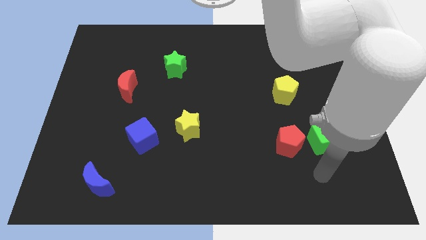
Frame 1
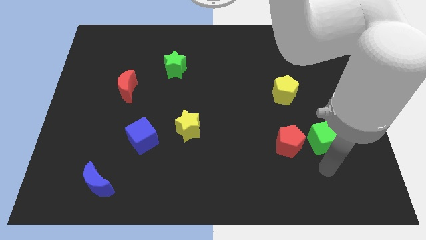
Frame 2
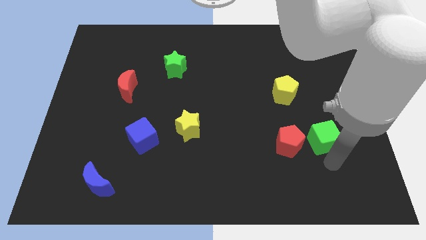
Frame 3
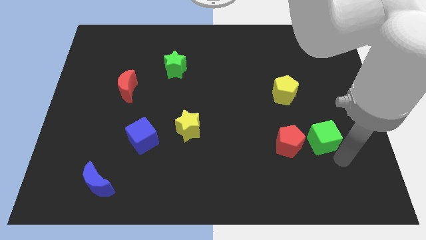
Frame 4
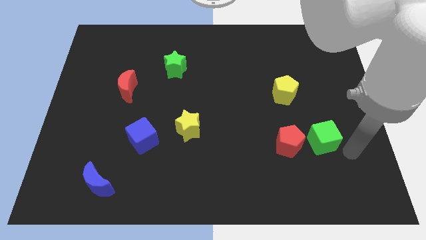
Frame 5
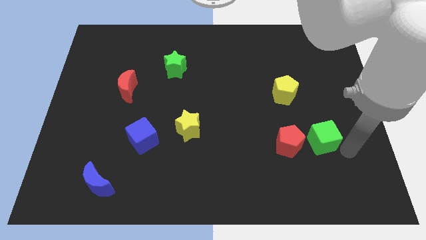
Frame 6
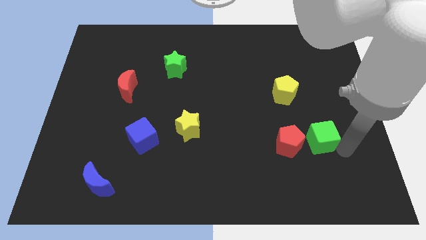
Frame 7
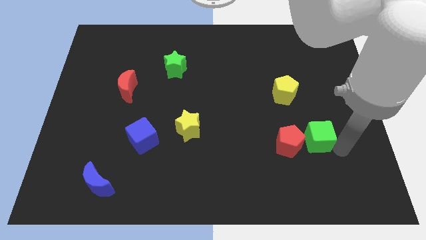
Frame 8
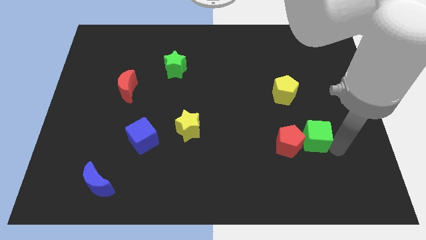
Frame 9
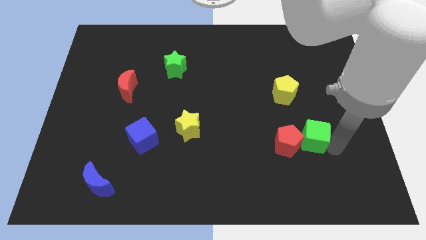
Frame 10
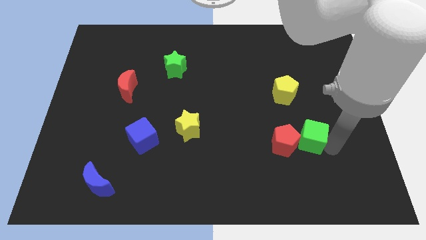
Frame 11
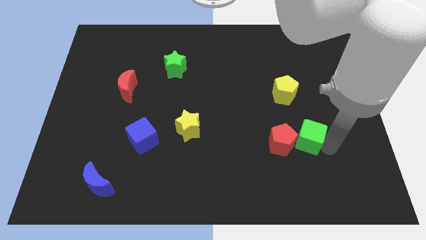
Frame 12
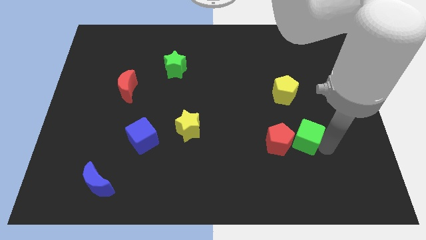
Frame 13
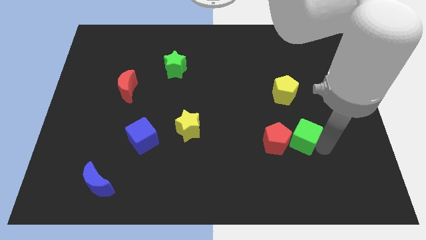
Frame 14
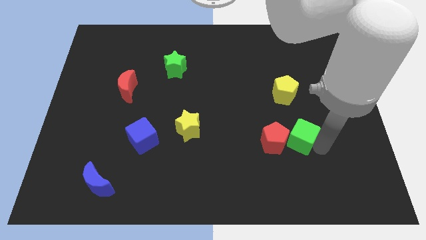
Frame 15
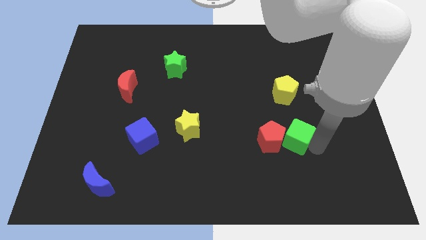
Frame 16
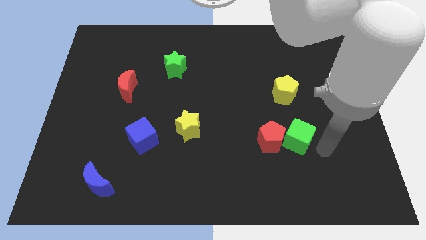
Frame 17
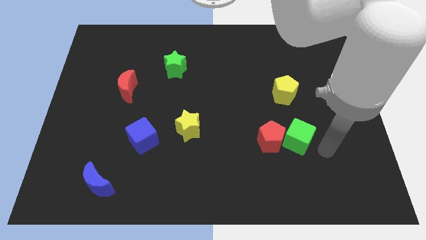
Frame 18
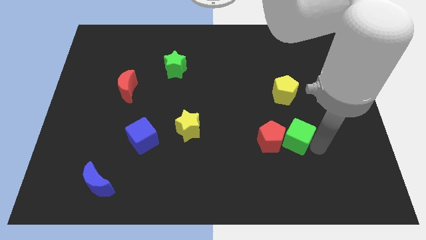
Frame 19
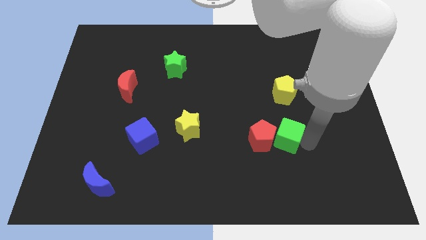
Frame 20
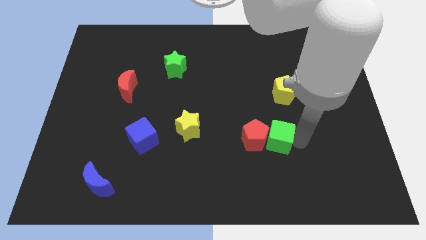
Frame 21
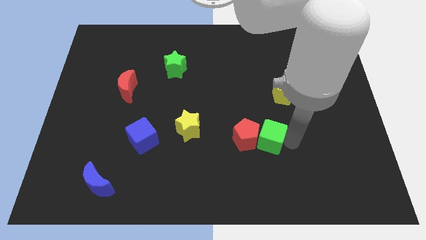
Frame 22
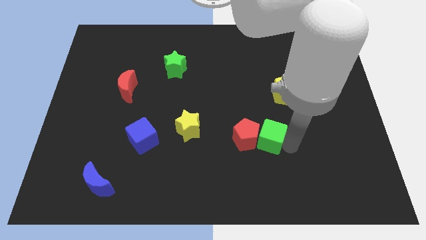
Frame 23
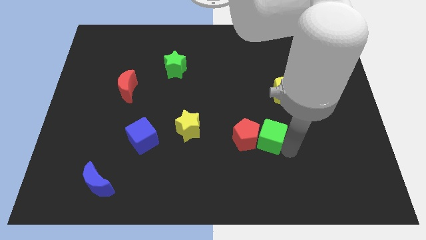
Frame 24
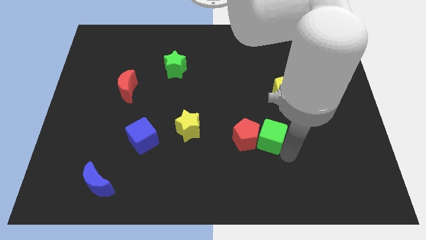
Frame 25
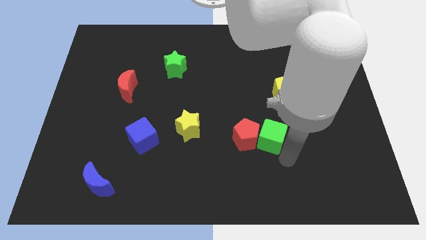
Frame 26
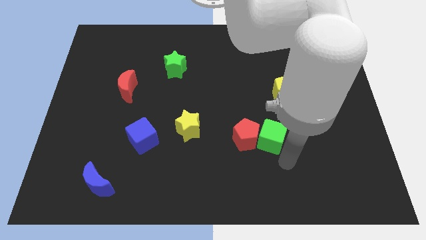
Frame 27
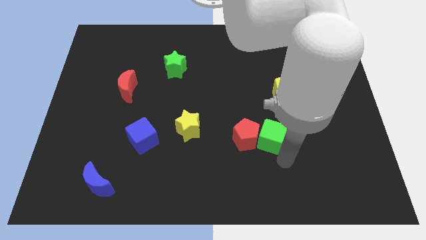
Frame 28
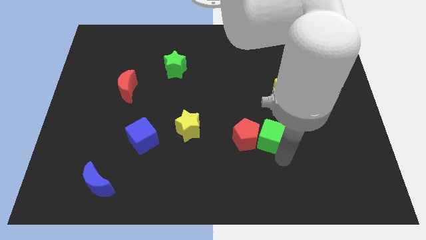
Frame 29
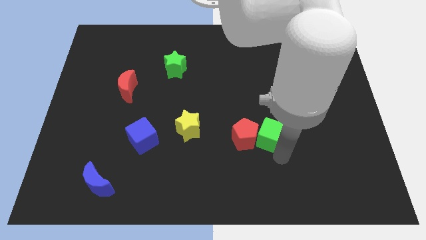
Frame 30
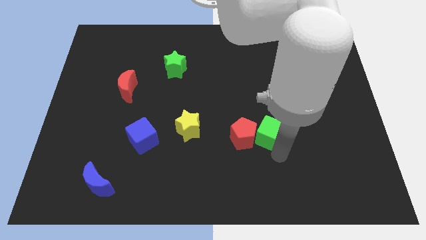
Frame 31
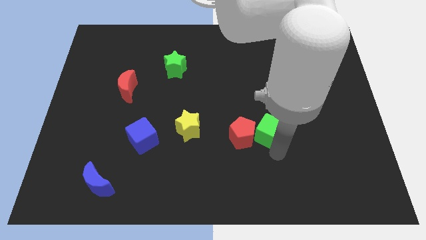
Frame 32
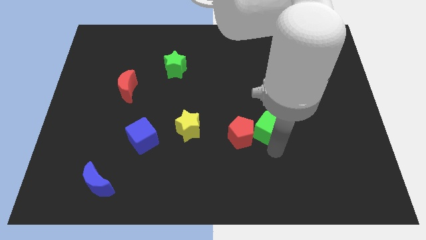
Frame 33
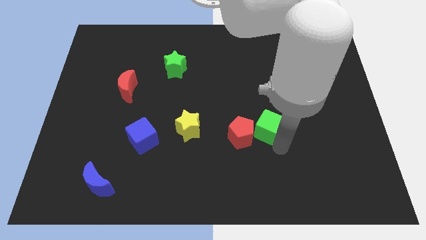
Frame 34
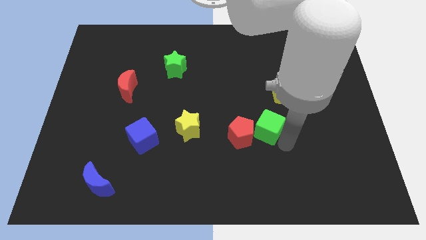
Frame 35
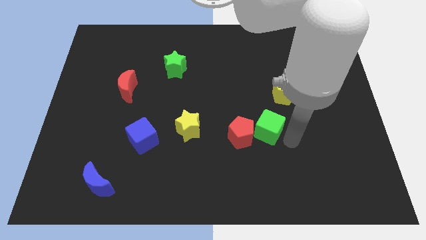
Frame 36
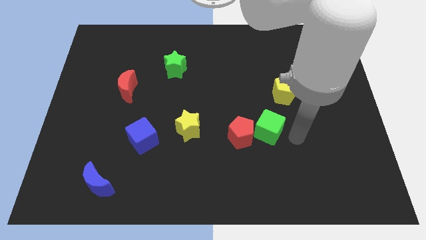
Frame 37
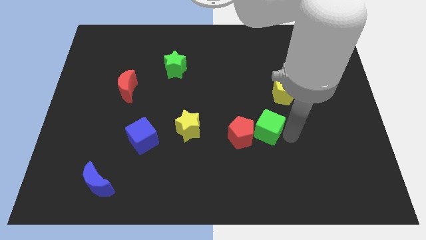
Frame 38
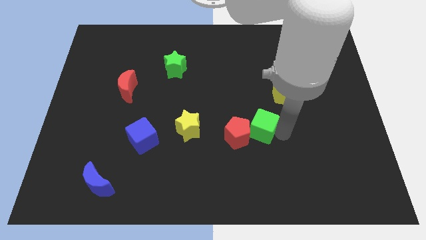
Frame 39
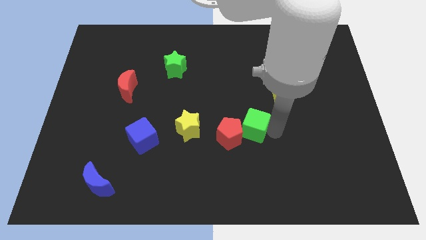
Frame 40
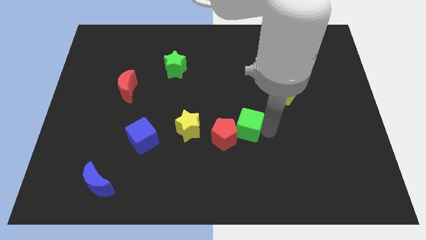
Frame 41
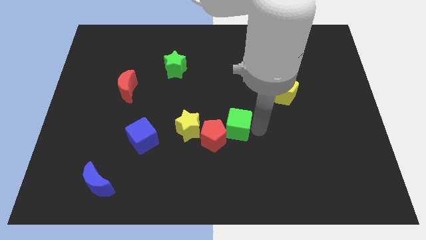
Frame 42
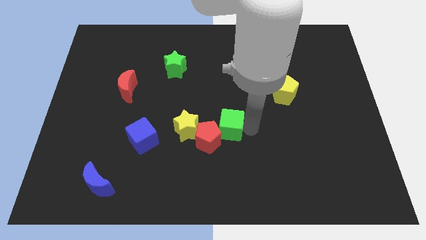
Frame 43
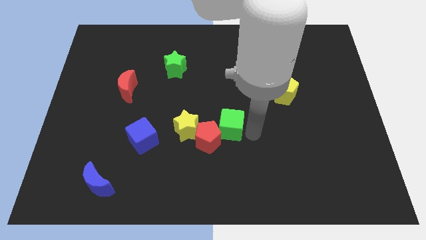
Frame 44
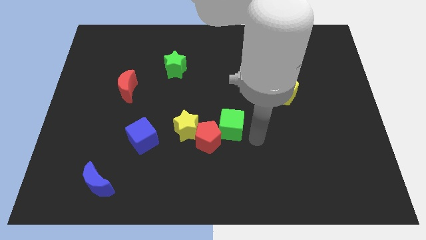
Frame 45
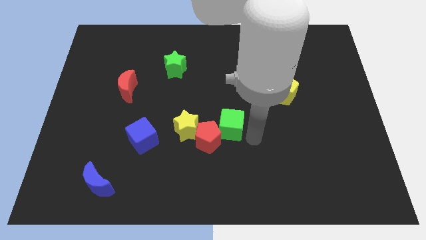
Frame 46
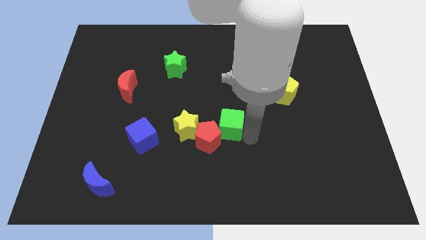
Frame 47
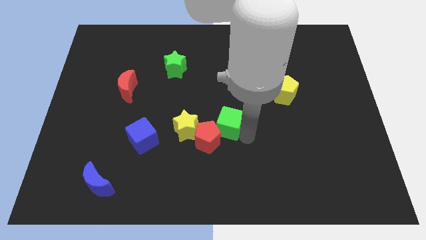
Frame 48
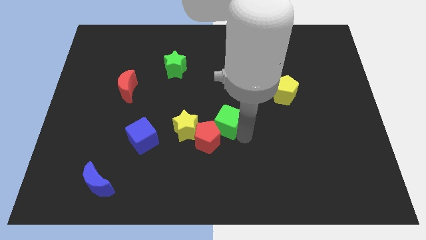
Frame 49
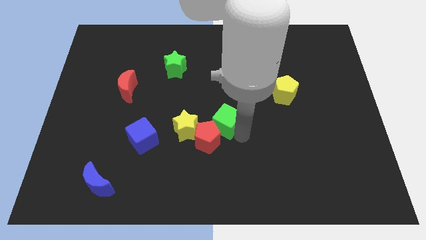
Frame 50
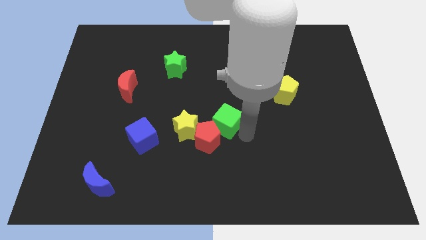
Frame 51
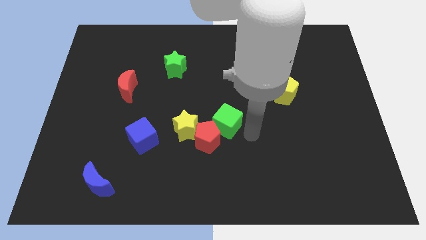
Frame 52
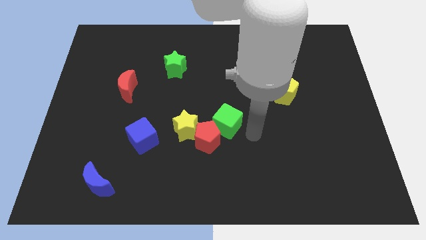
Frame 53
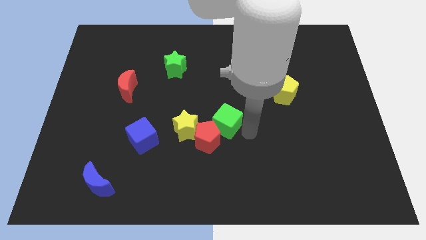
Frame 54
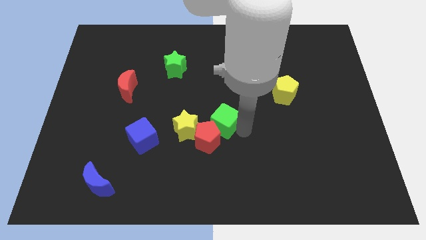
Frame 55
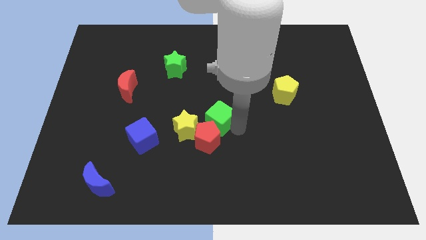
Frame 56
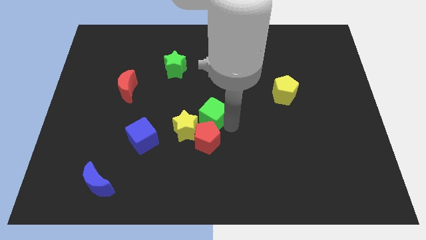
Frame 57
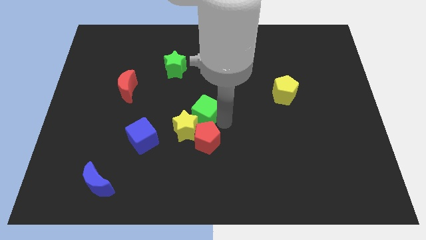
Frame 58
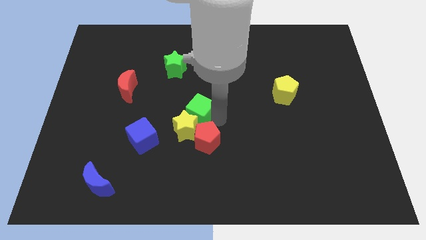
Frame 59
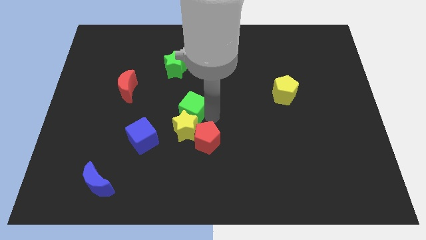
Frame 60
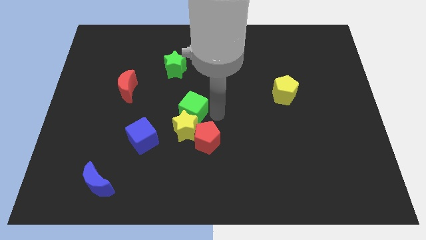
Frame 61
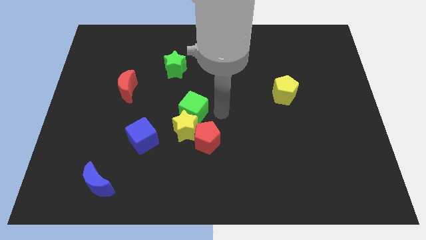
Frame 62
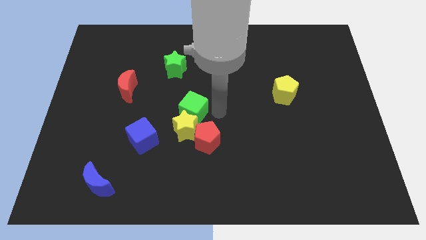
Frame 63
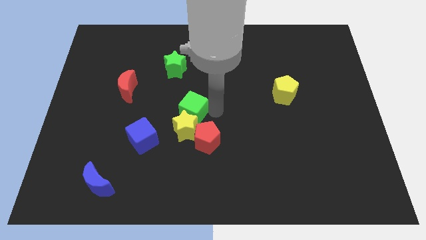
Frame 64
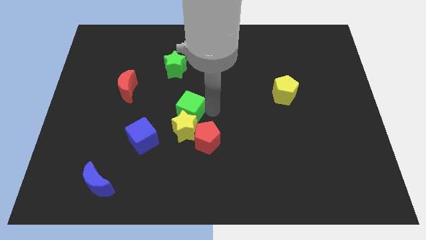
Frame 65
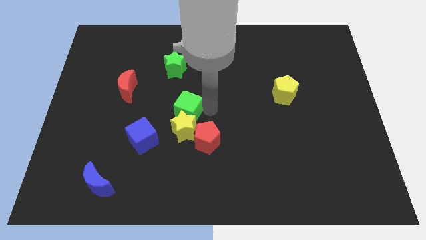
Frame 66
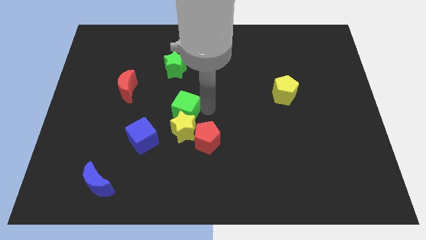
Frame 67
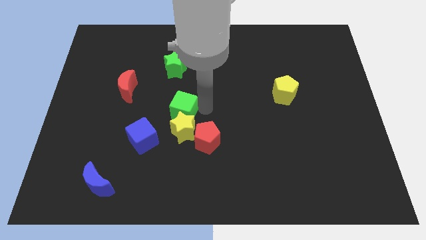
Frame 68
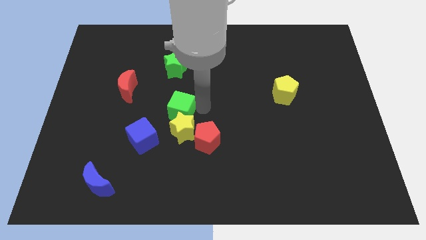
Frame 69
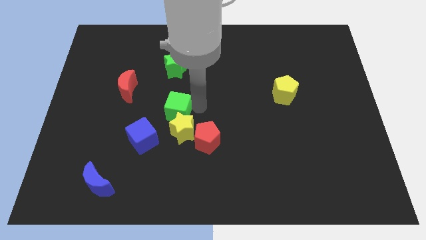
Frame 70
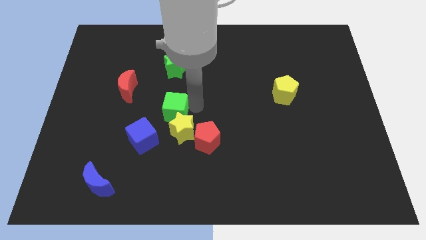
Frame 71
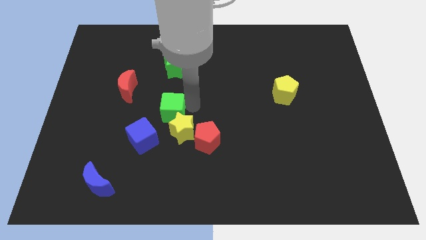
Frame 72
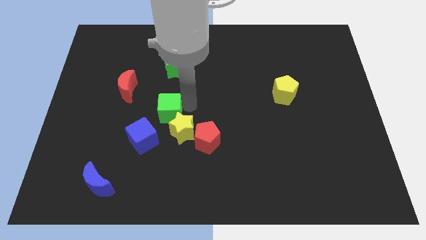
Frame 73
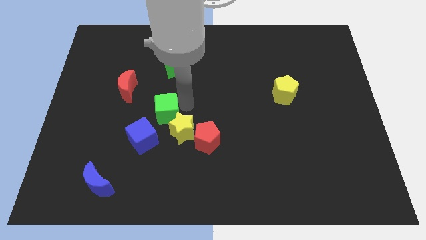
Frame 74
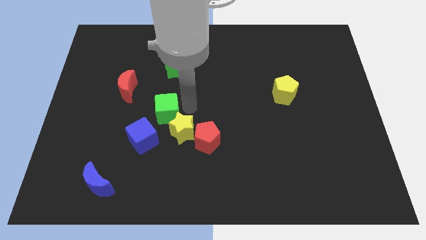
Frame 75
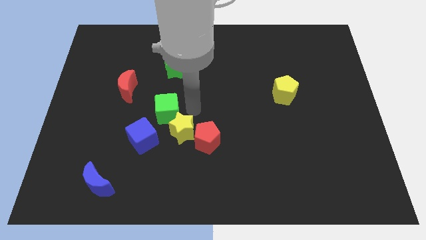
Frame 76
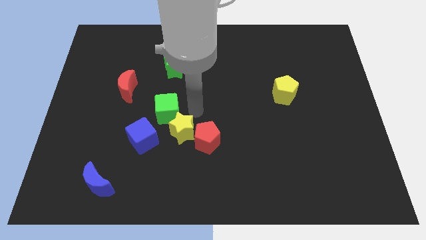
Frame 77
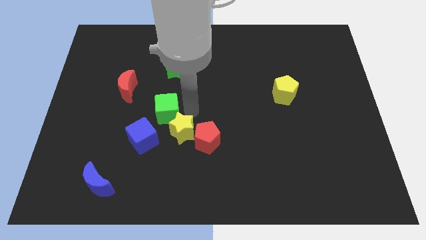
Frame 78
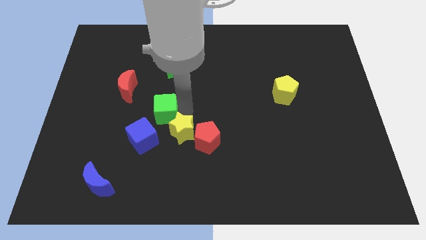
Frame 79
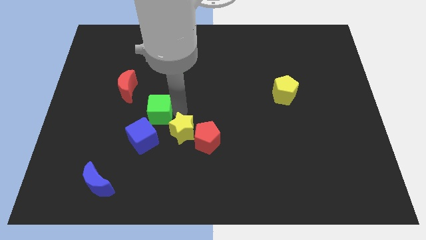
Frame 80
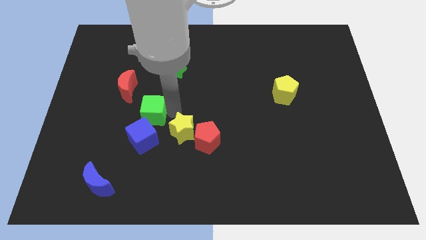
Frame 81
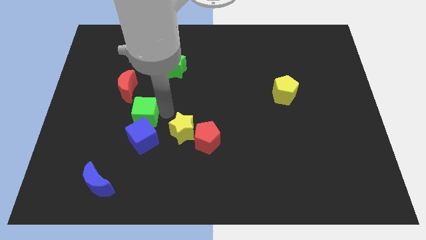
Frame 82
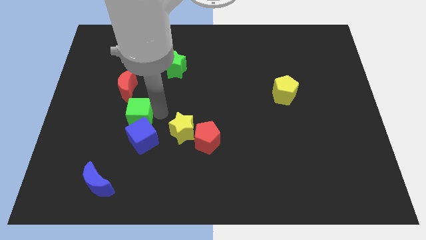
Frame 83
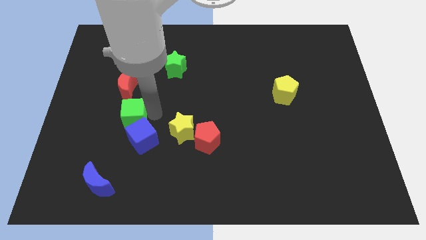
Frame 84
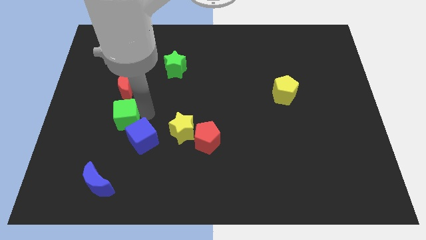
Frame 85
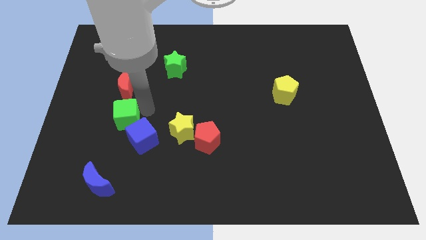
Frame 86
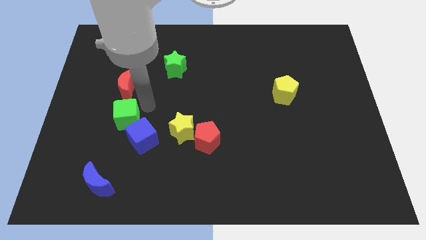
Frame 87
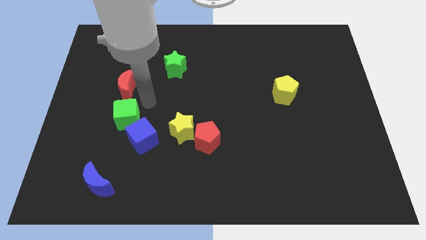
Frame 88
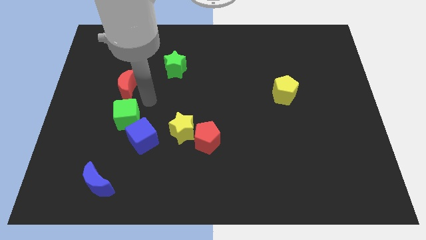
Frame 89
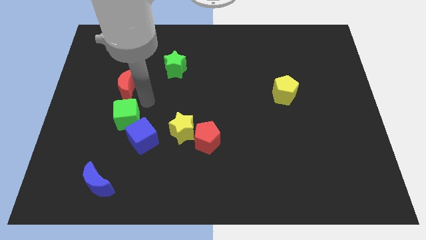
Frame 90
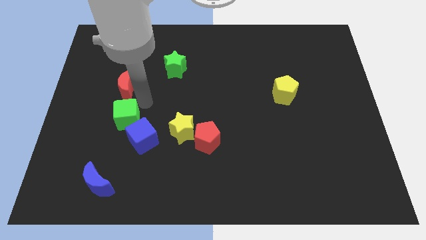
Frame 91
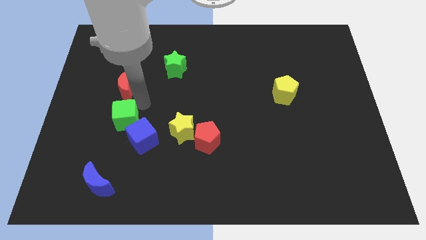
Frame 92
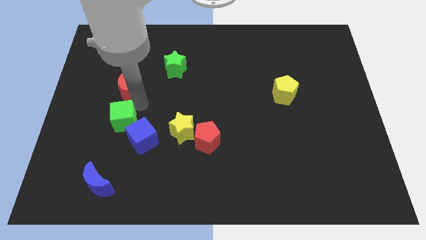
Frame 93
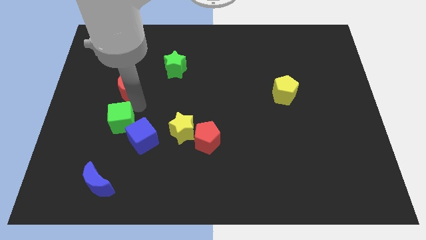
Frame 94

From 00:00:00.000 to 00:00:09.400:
move the green cube left of the blue cube
